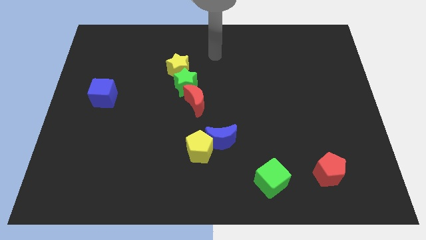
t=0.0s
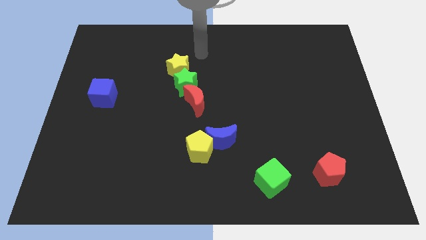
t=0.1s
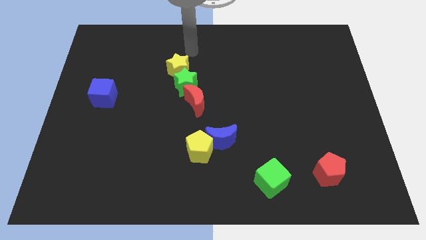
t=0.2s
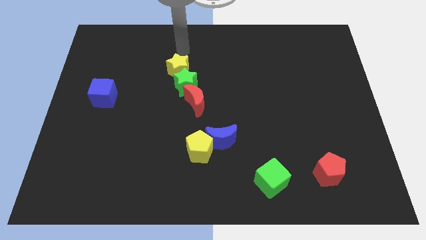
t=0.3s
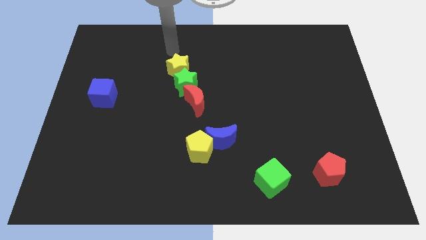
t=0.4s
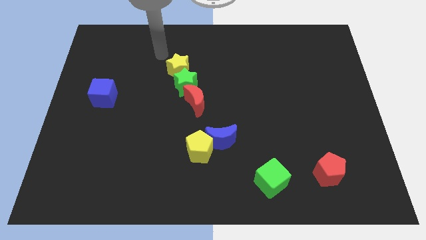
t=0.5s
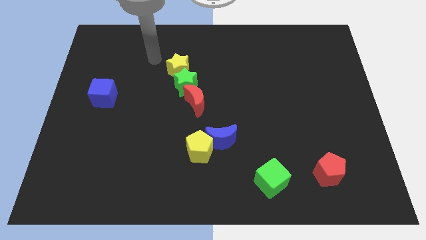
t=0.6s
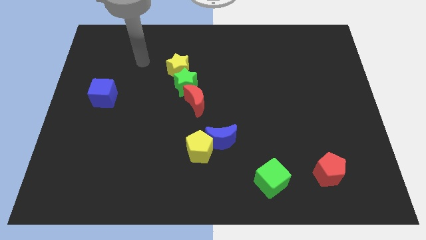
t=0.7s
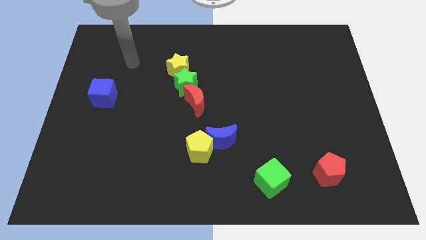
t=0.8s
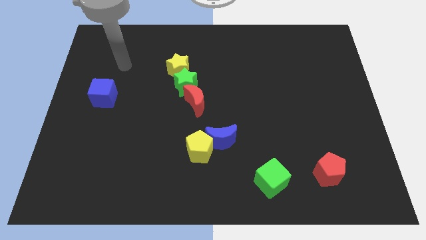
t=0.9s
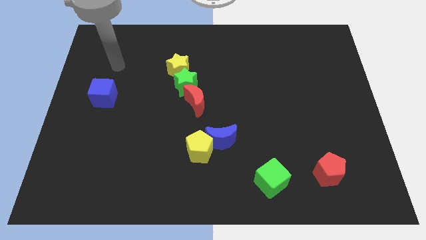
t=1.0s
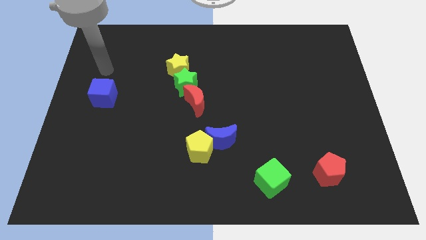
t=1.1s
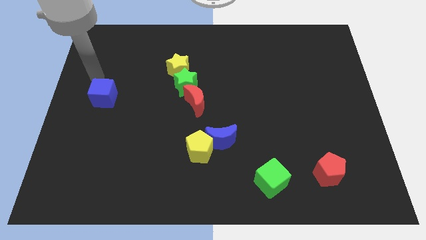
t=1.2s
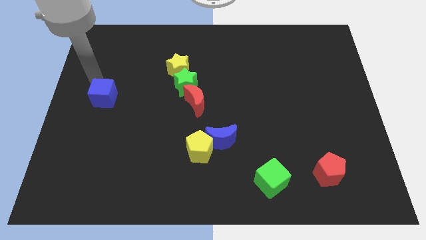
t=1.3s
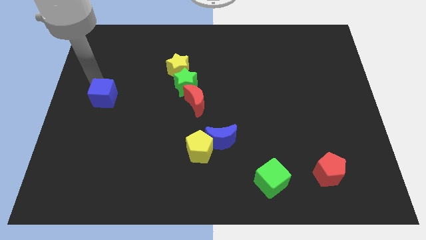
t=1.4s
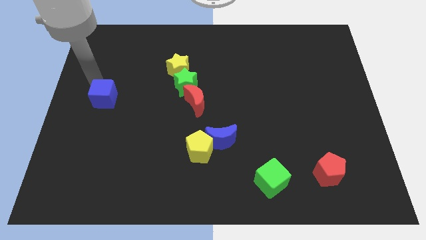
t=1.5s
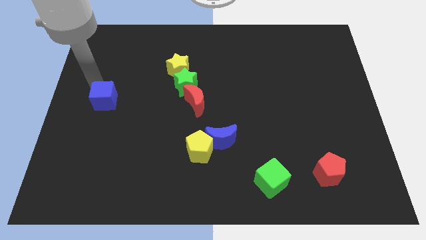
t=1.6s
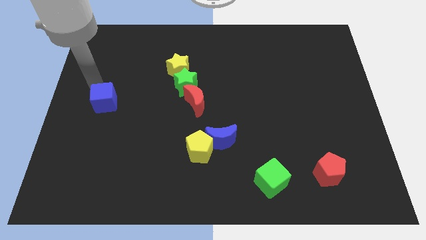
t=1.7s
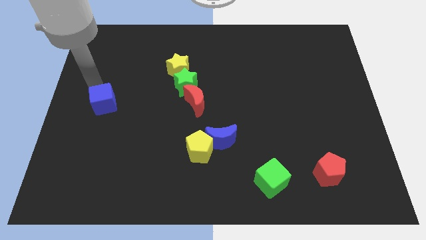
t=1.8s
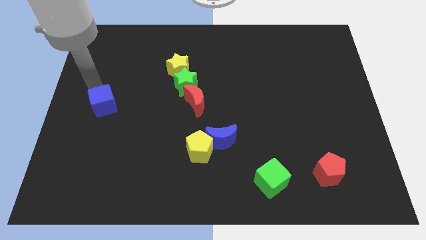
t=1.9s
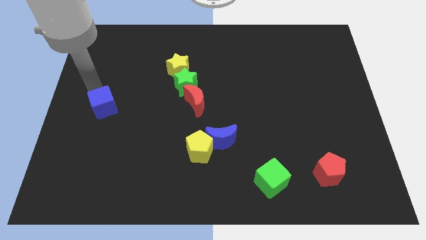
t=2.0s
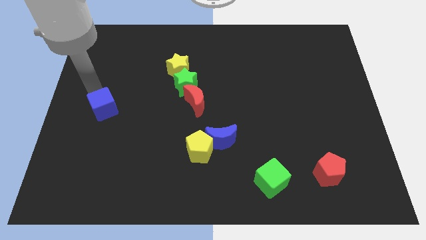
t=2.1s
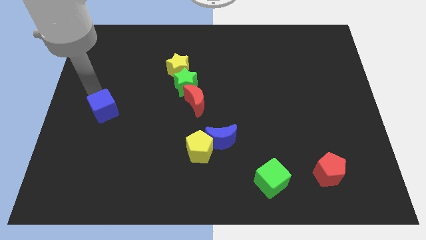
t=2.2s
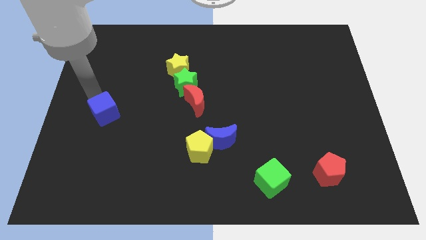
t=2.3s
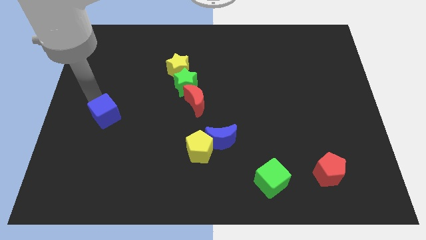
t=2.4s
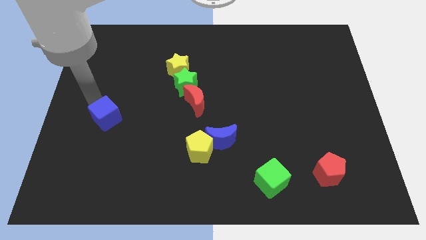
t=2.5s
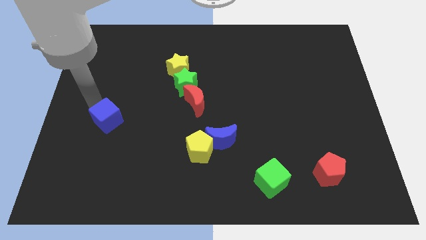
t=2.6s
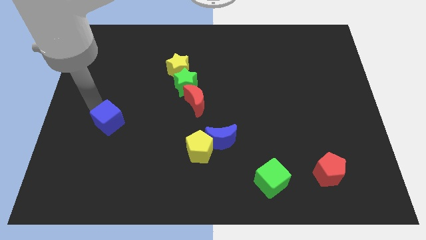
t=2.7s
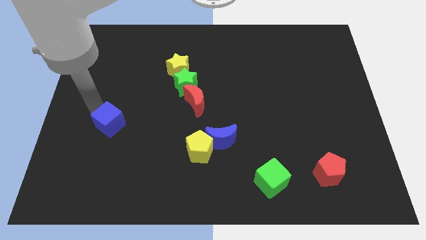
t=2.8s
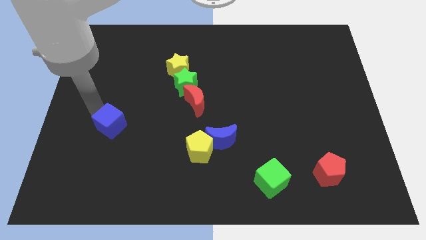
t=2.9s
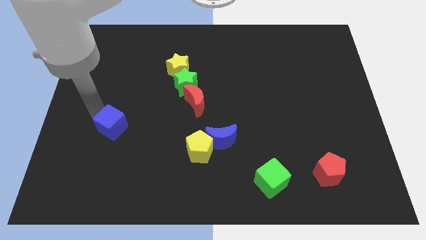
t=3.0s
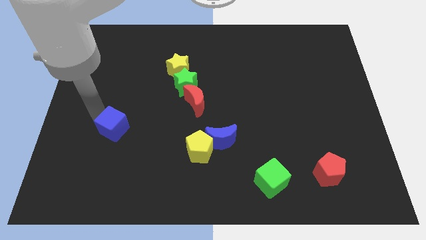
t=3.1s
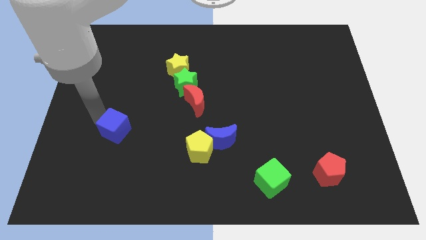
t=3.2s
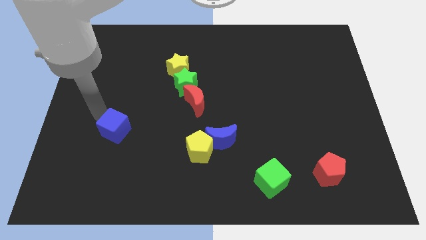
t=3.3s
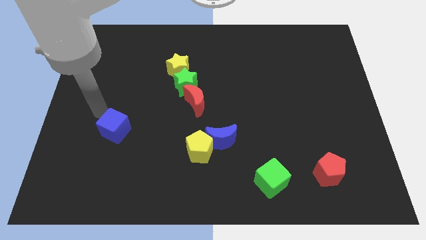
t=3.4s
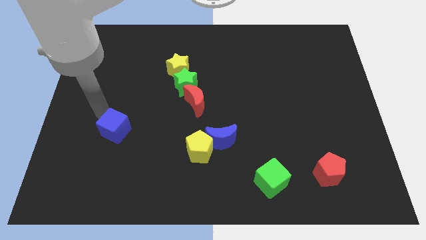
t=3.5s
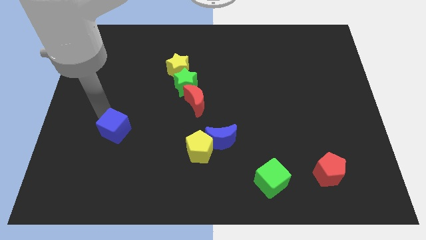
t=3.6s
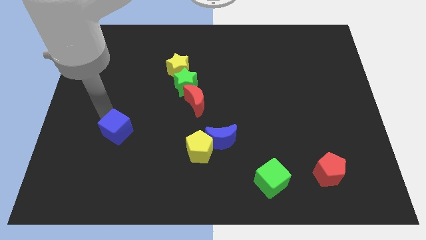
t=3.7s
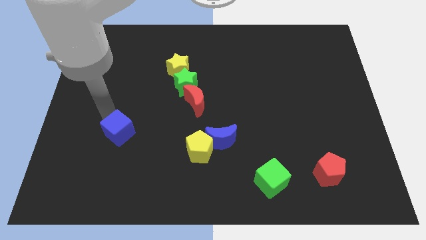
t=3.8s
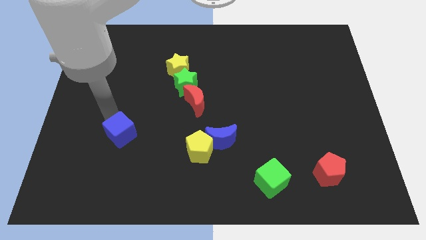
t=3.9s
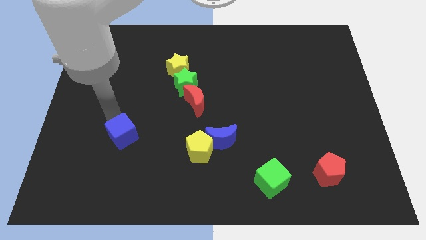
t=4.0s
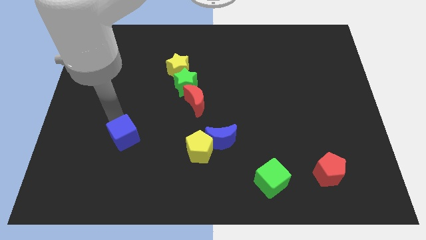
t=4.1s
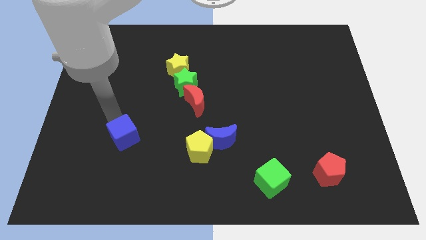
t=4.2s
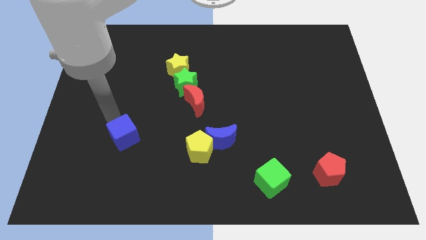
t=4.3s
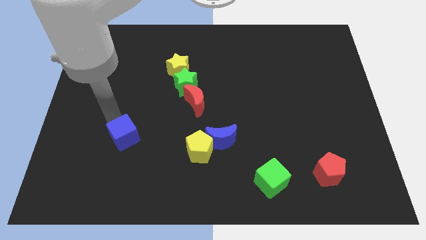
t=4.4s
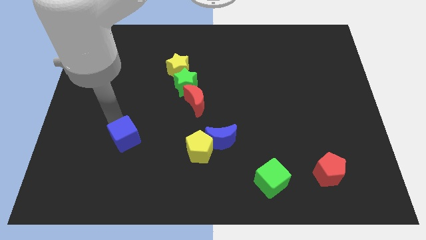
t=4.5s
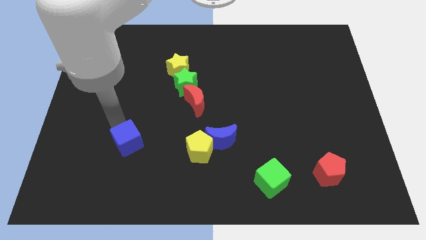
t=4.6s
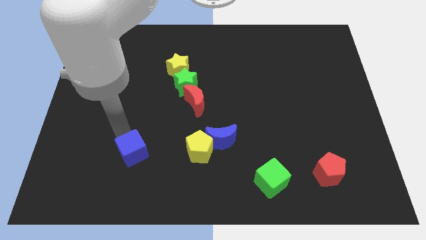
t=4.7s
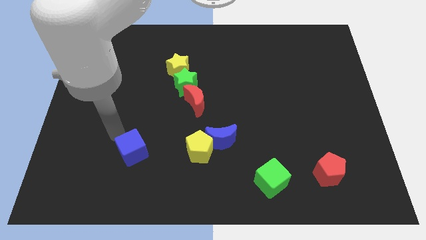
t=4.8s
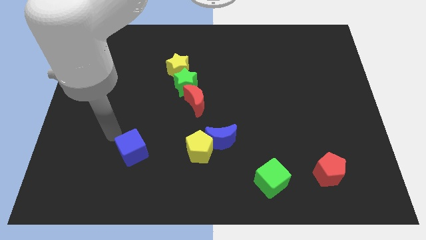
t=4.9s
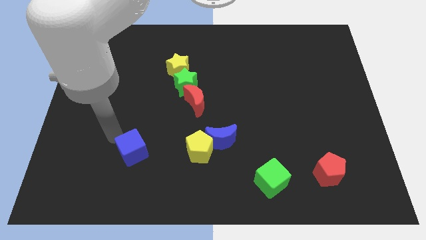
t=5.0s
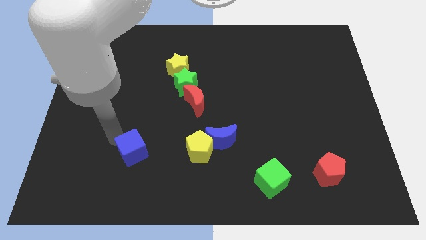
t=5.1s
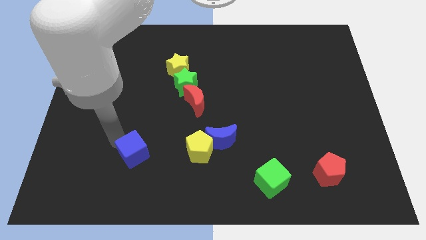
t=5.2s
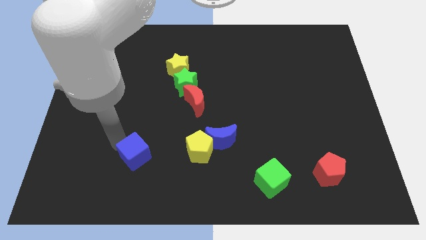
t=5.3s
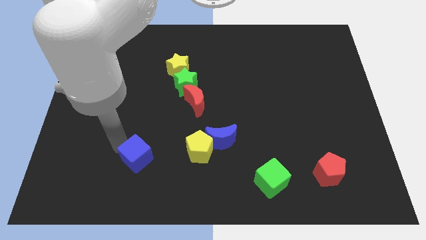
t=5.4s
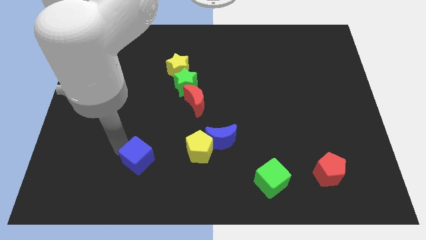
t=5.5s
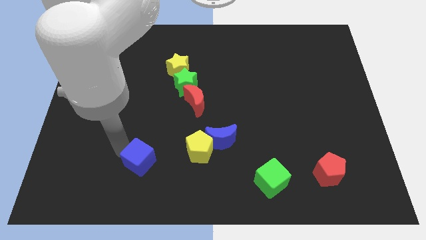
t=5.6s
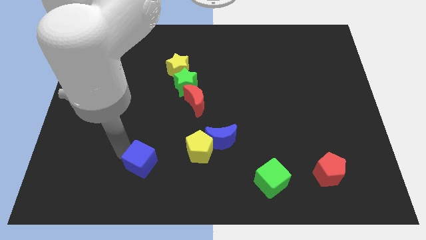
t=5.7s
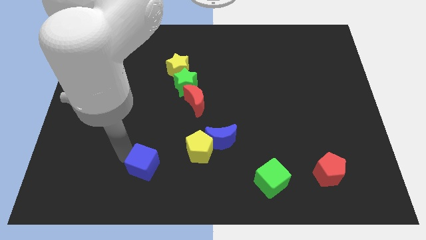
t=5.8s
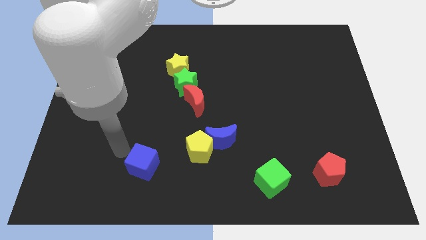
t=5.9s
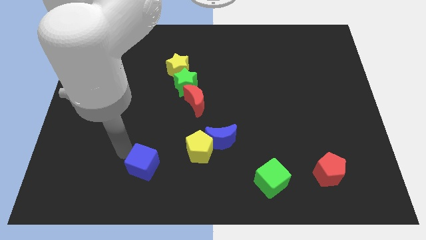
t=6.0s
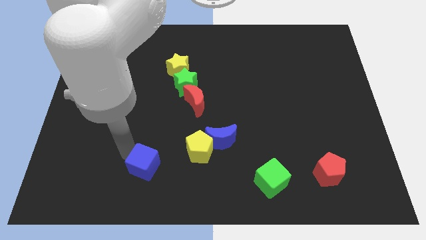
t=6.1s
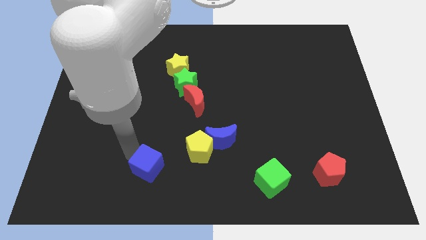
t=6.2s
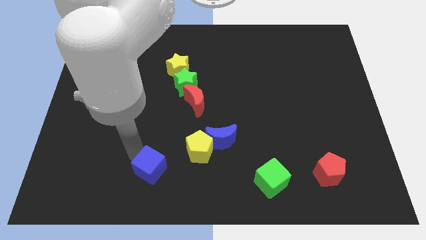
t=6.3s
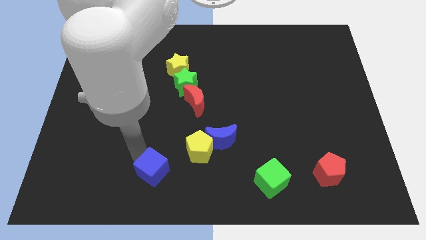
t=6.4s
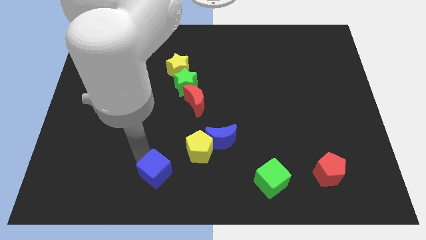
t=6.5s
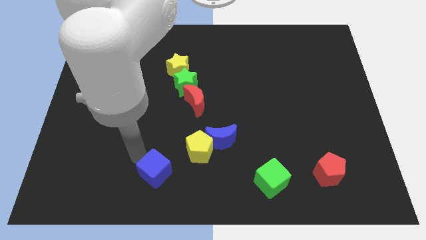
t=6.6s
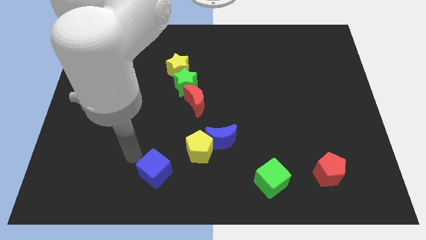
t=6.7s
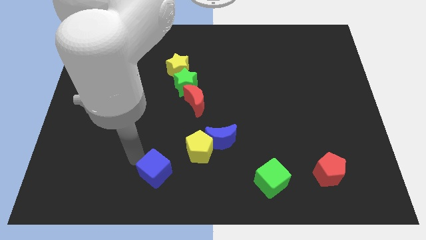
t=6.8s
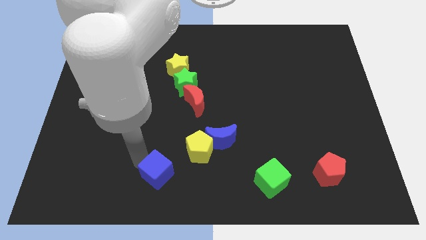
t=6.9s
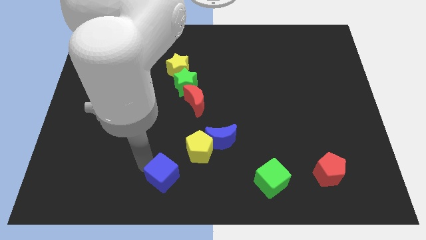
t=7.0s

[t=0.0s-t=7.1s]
slide the blue cube to the bottom side
